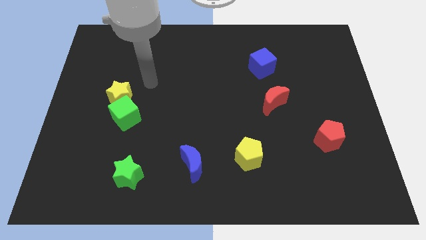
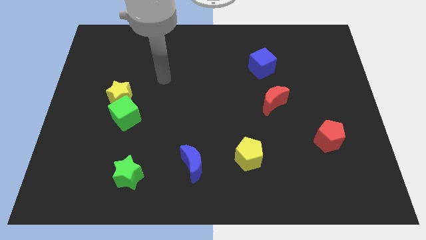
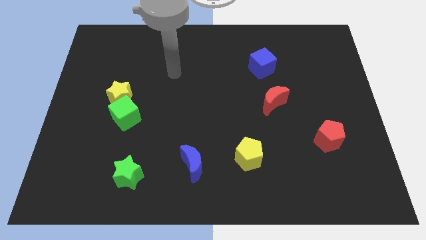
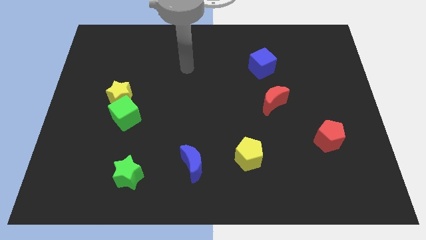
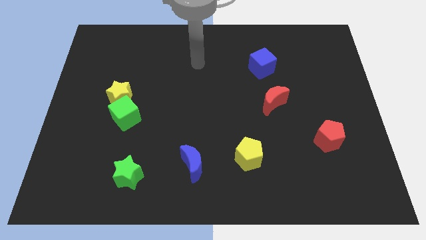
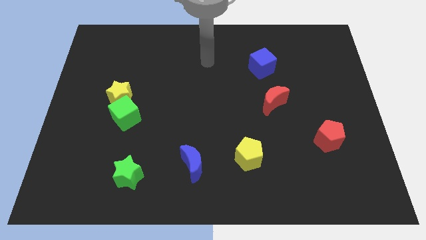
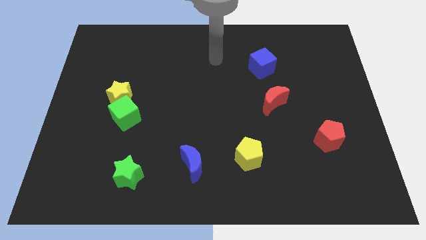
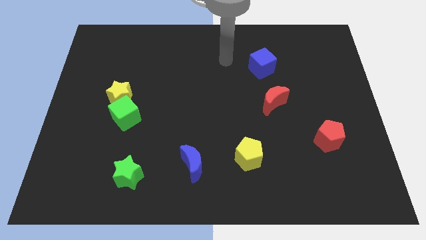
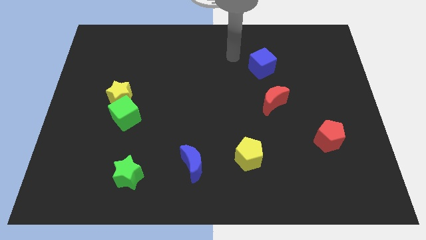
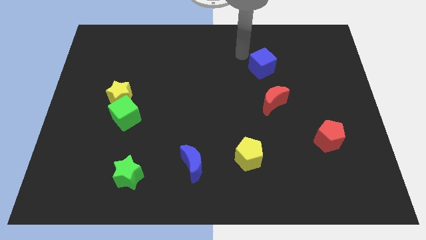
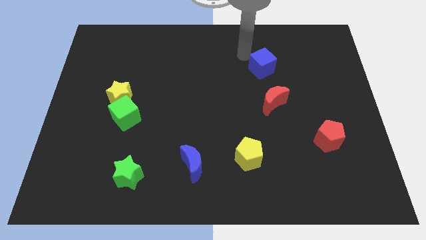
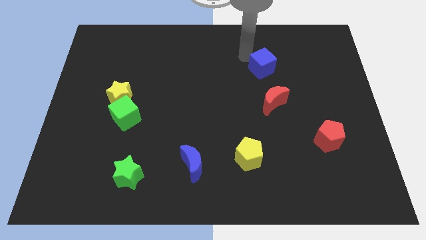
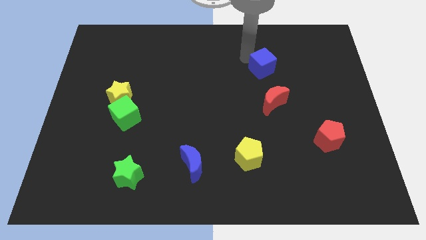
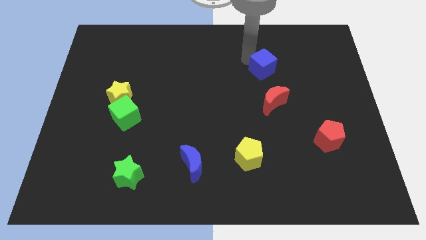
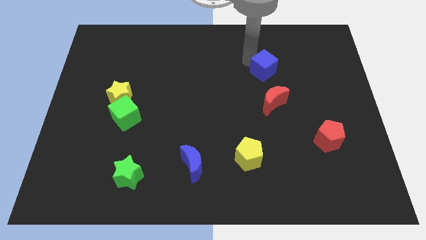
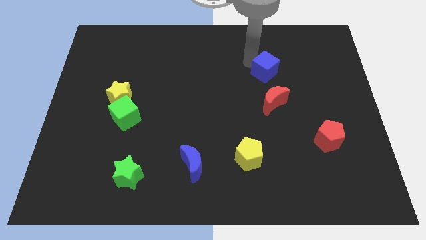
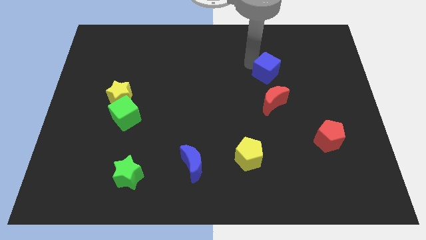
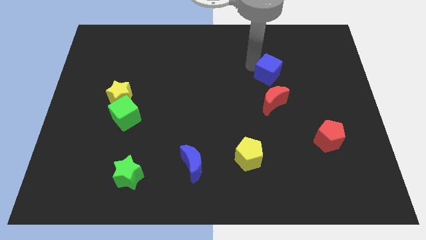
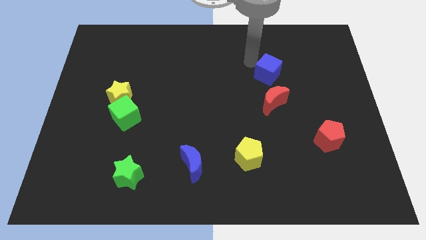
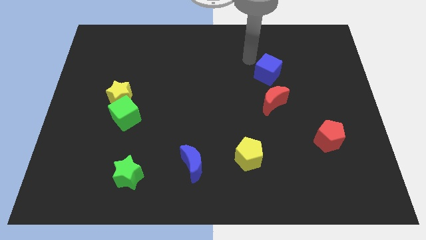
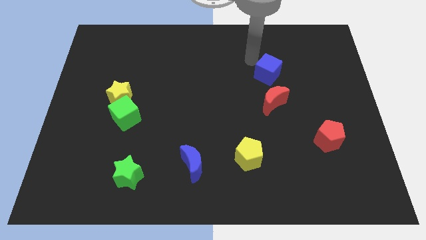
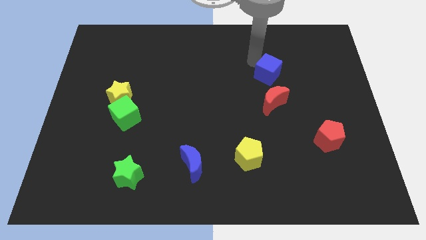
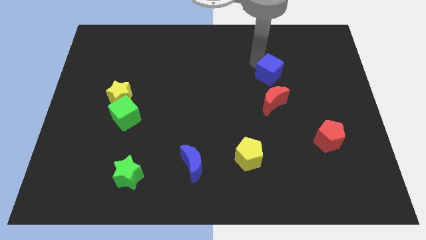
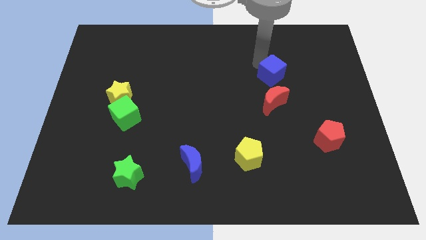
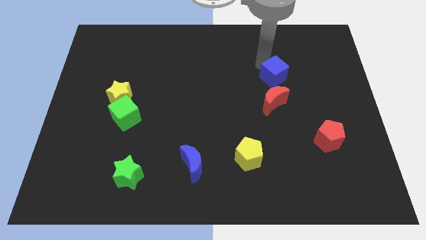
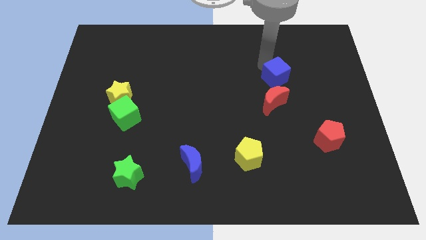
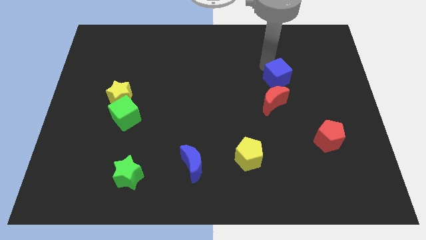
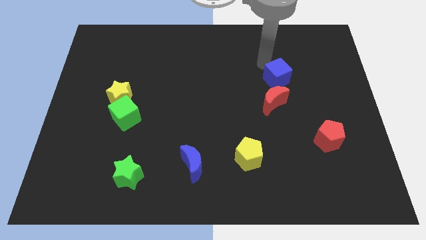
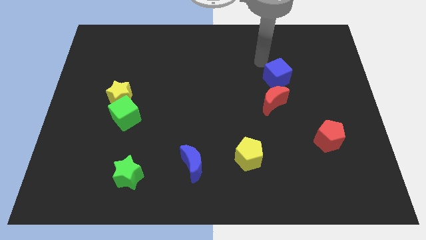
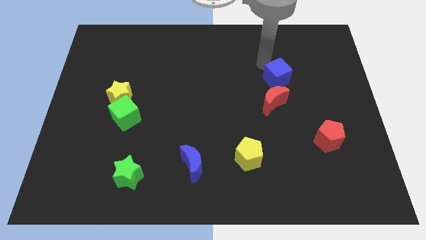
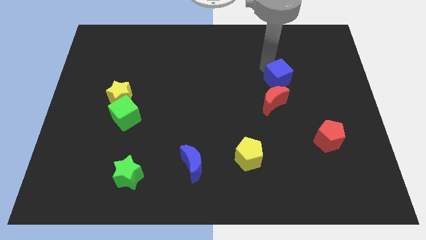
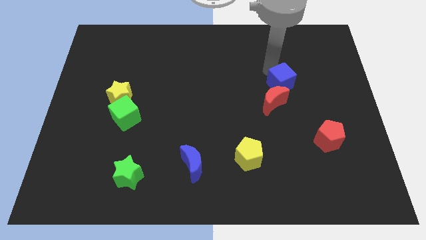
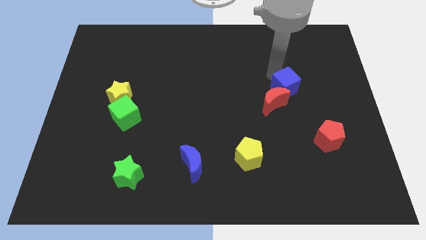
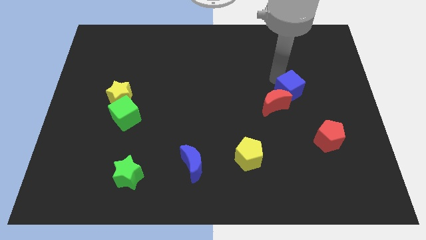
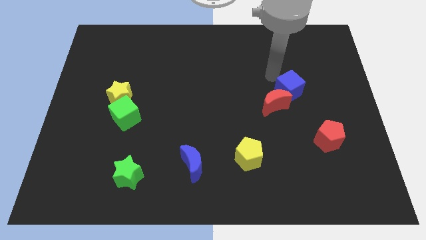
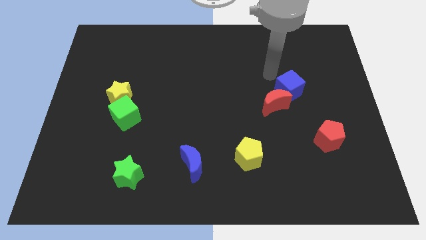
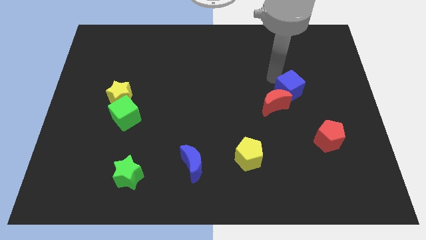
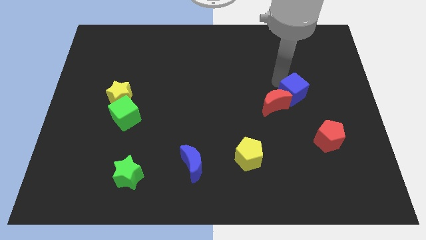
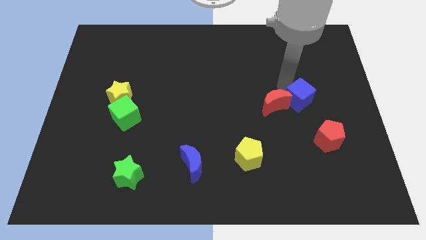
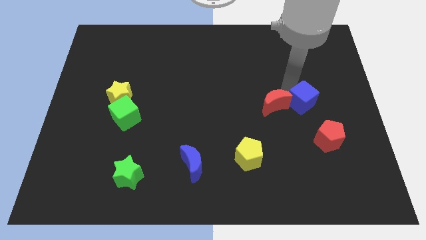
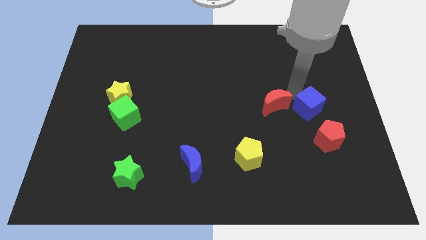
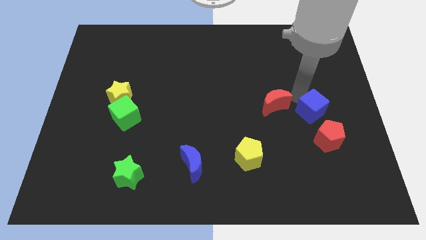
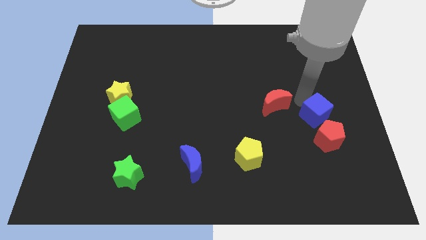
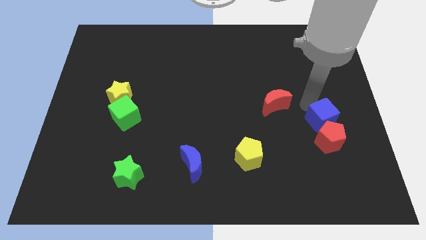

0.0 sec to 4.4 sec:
push the blue cube towards the red pentagon

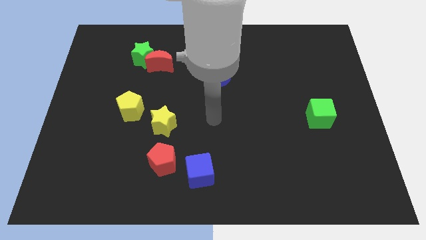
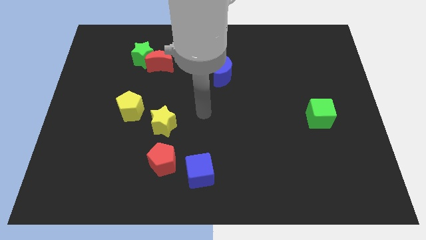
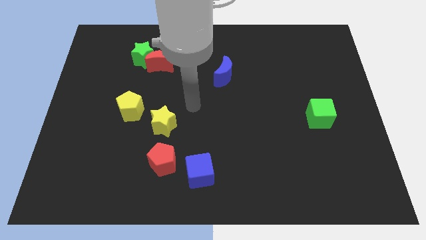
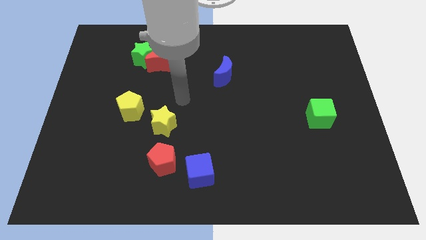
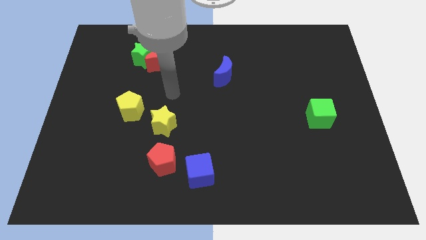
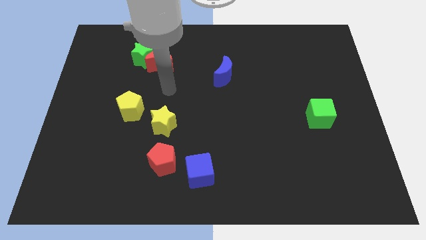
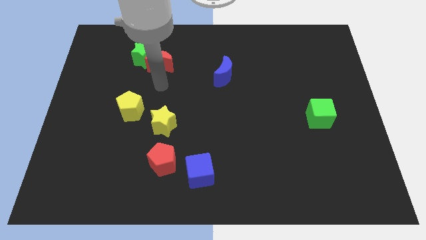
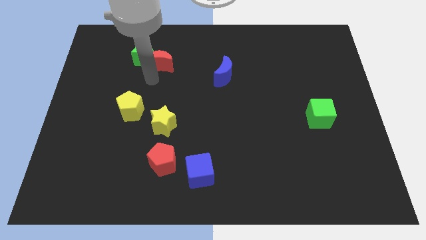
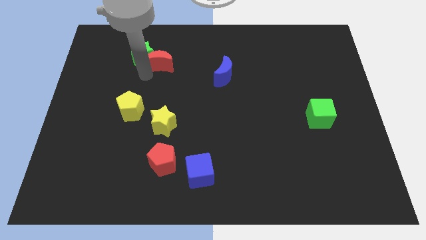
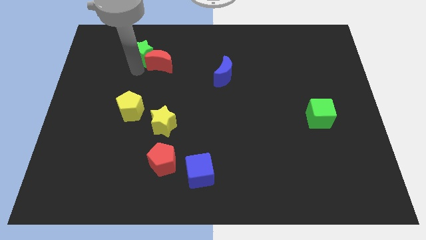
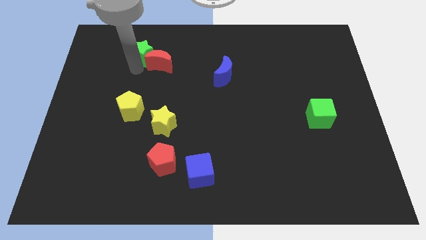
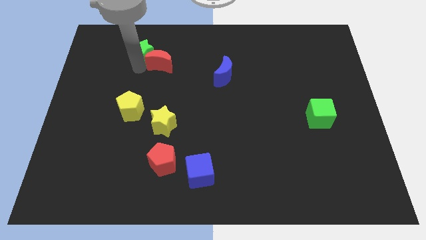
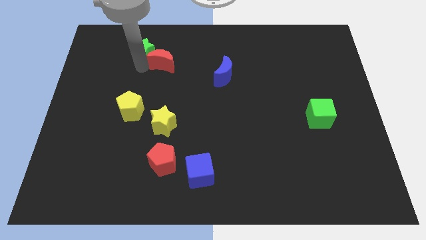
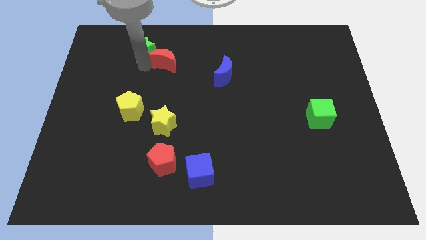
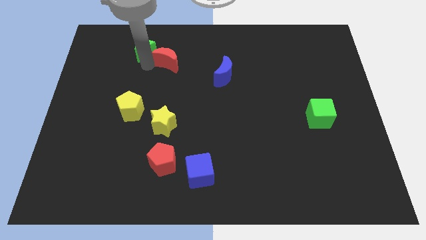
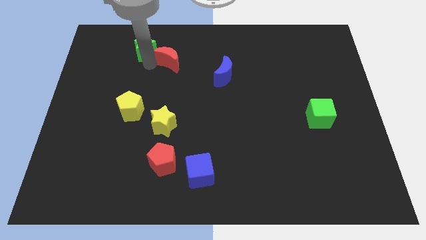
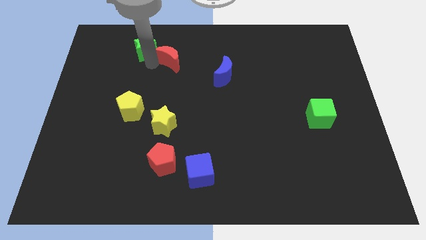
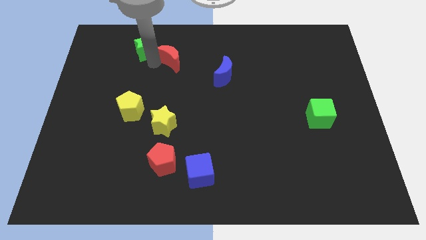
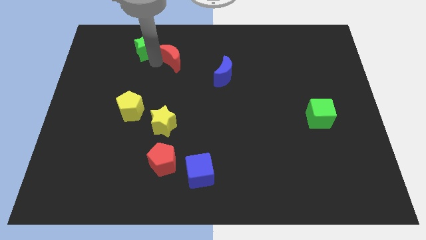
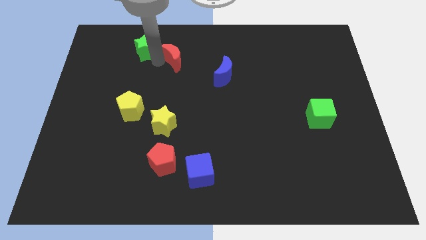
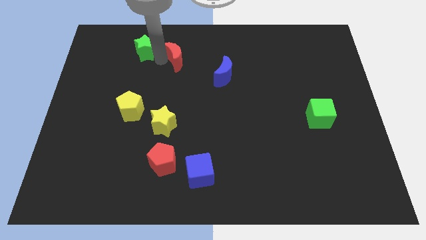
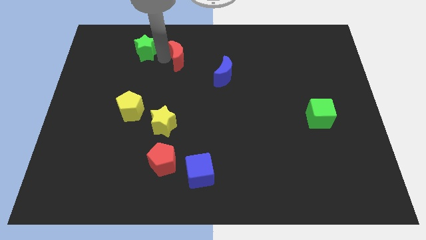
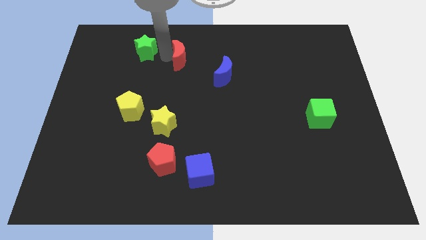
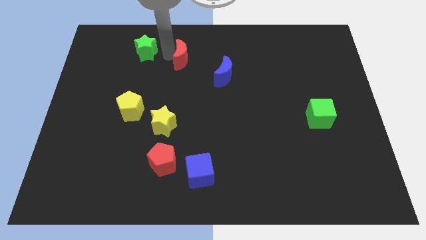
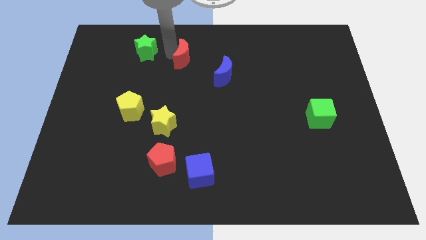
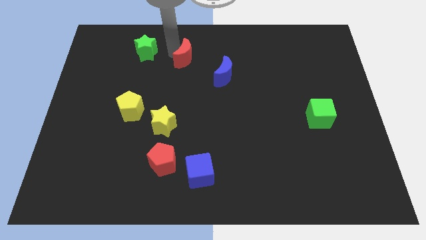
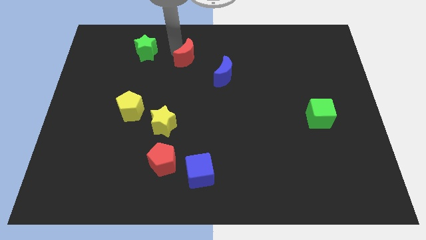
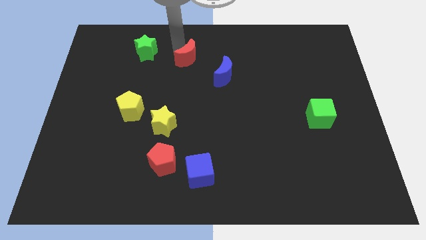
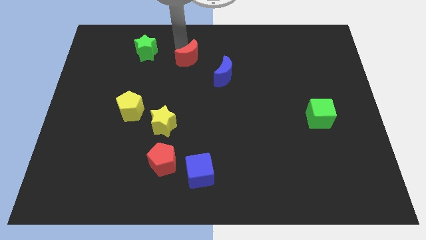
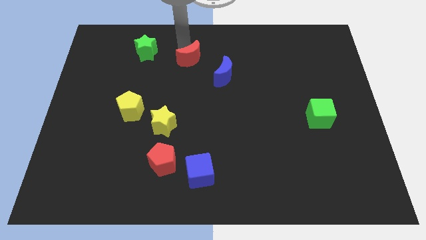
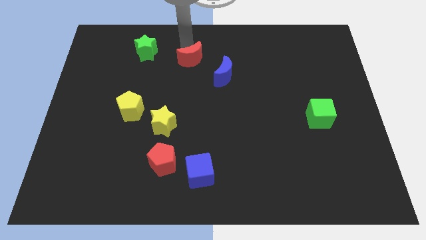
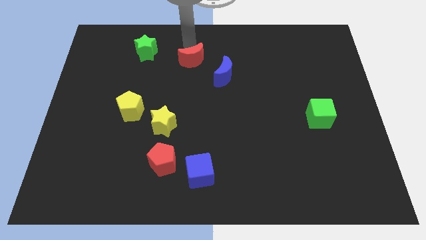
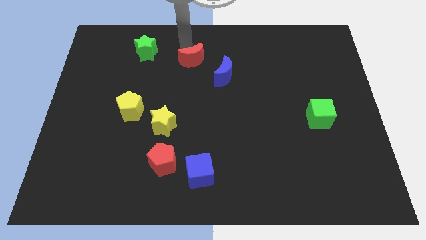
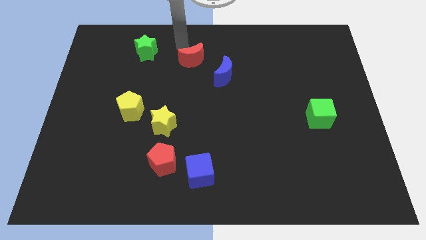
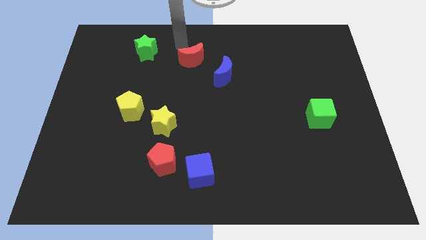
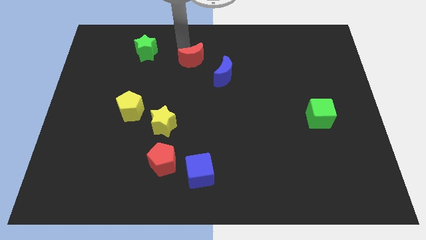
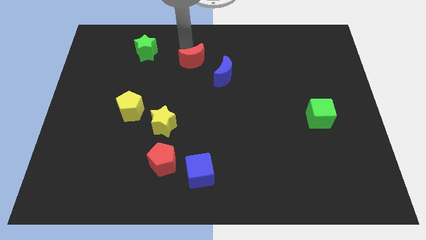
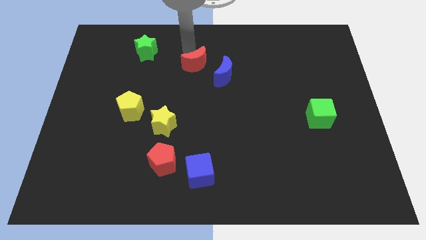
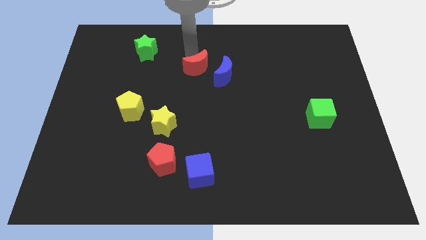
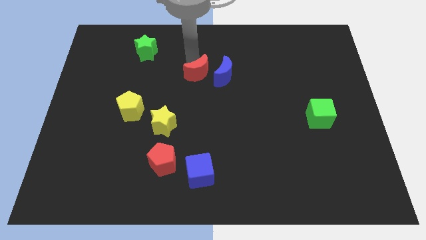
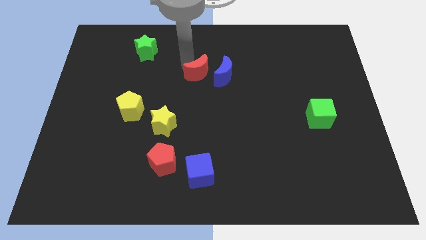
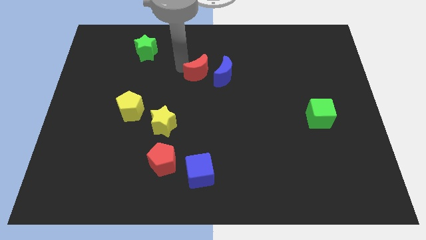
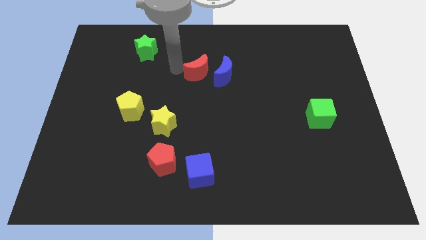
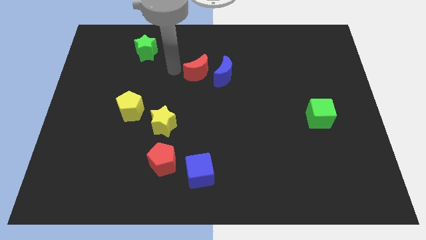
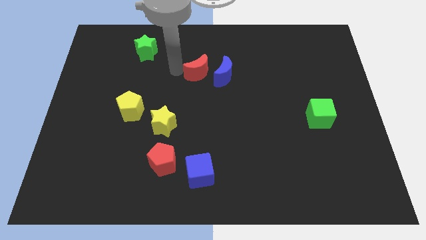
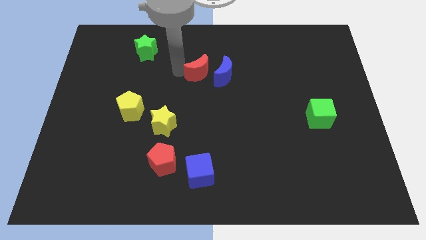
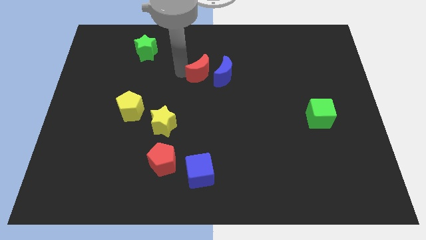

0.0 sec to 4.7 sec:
slide the red moon close to the blue moon
